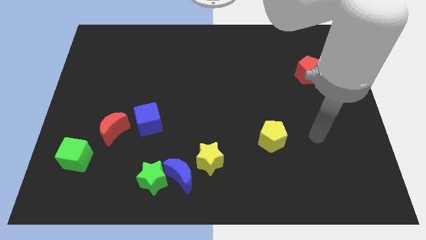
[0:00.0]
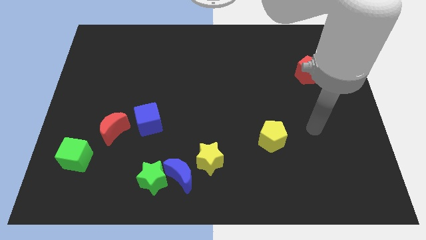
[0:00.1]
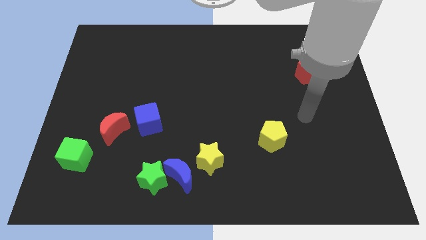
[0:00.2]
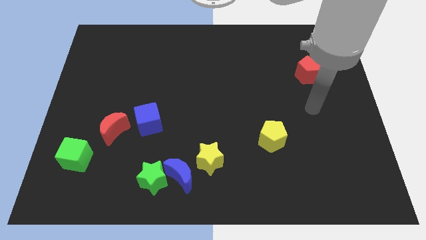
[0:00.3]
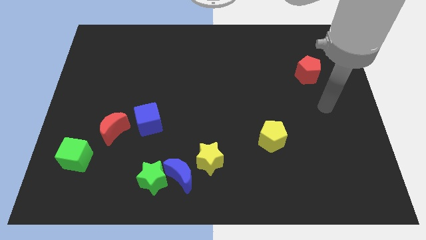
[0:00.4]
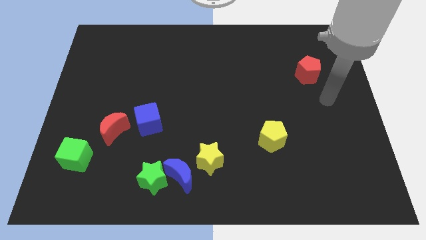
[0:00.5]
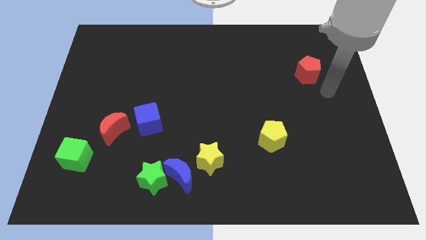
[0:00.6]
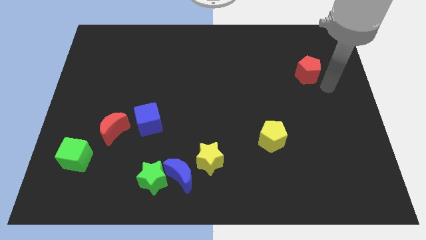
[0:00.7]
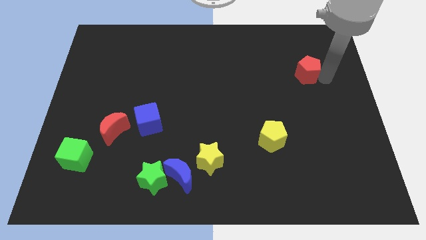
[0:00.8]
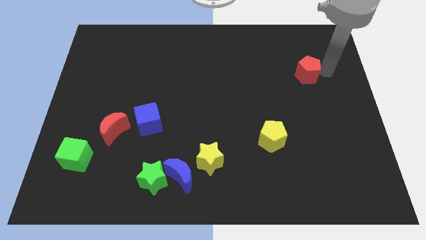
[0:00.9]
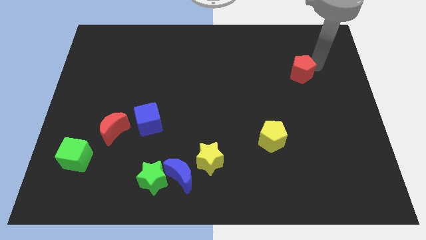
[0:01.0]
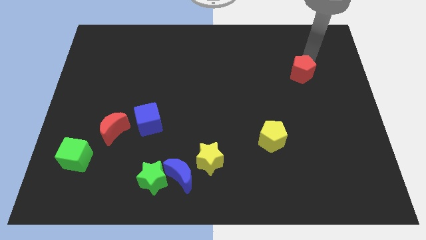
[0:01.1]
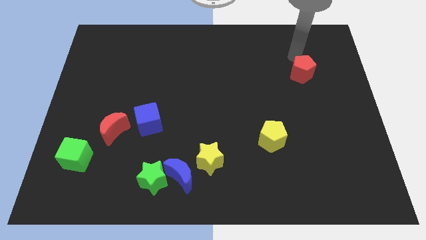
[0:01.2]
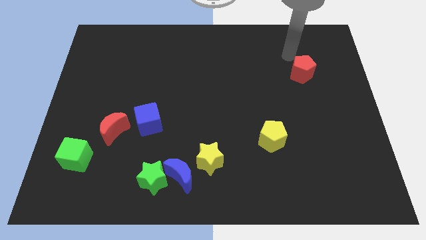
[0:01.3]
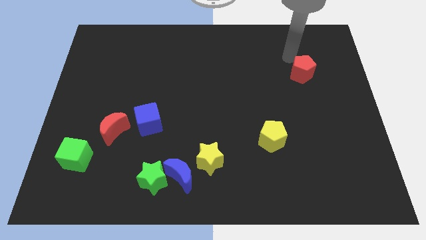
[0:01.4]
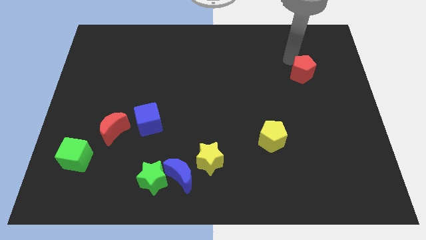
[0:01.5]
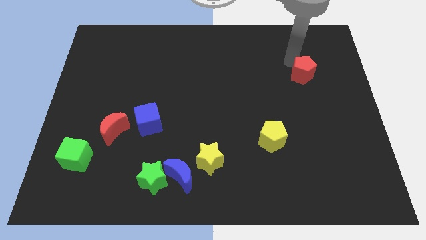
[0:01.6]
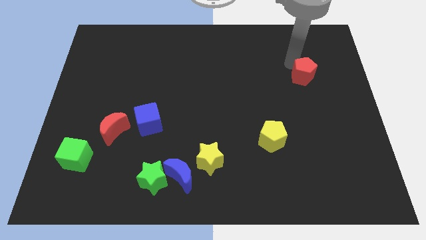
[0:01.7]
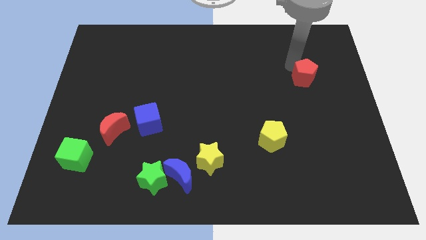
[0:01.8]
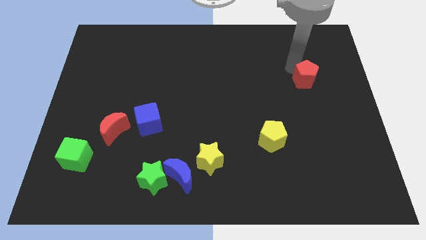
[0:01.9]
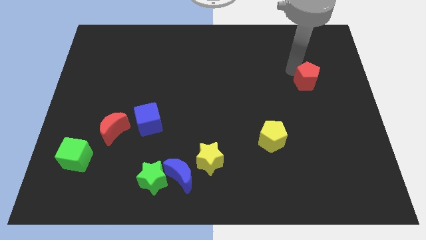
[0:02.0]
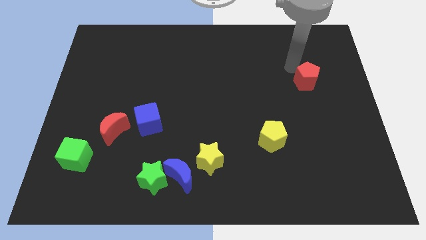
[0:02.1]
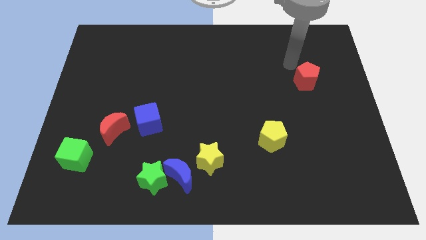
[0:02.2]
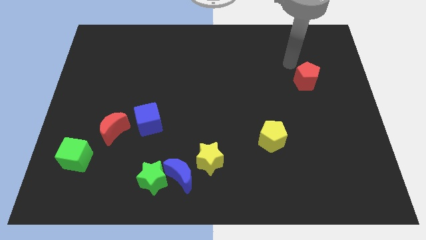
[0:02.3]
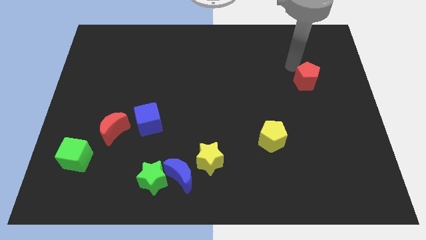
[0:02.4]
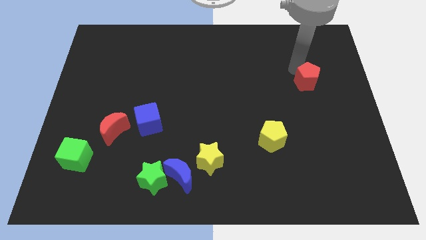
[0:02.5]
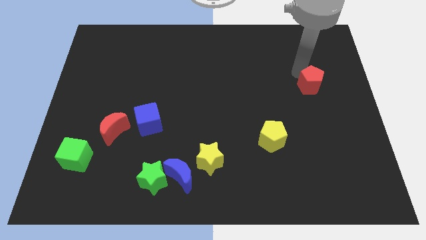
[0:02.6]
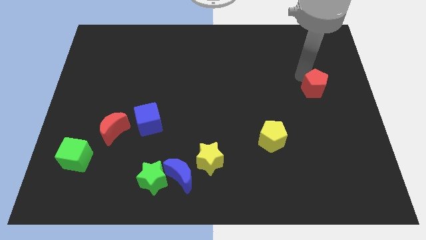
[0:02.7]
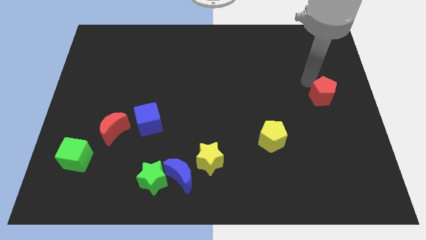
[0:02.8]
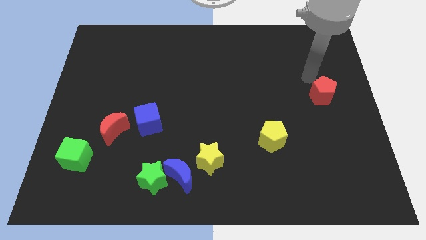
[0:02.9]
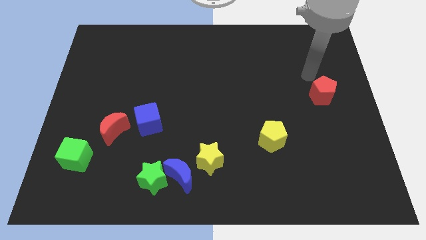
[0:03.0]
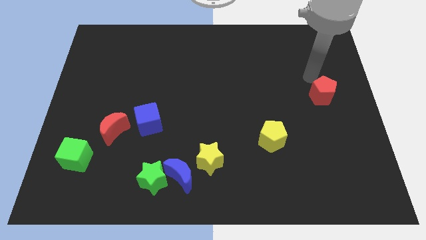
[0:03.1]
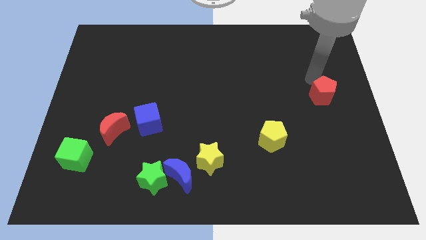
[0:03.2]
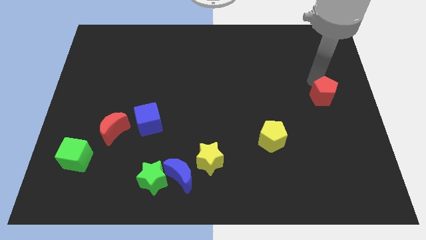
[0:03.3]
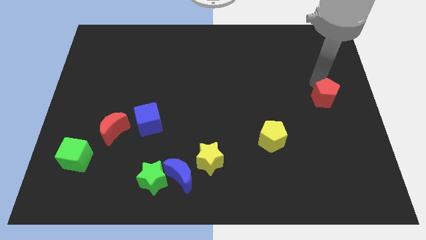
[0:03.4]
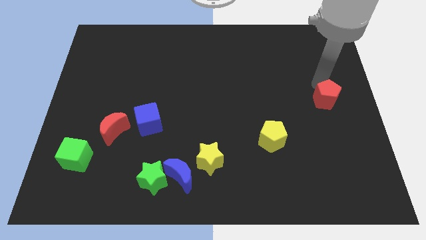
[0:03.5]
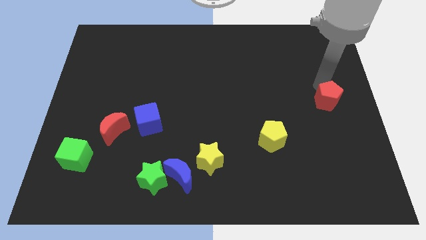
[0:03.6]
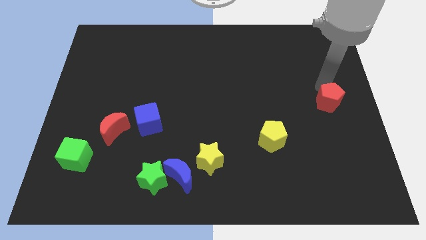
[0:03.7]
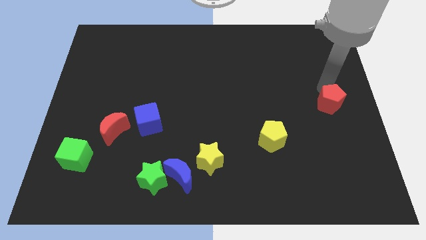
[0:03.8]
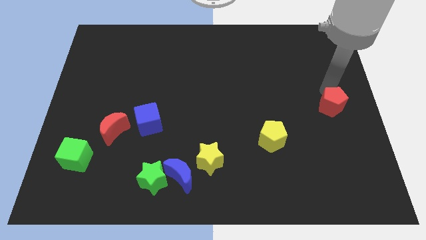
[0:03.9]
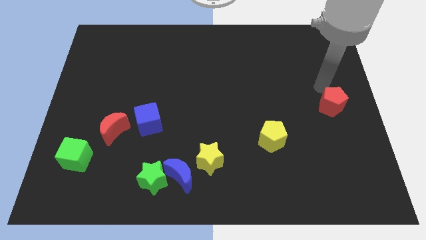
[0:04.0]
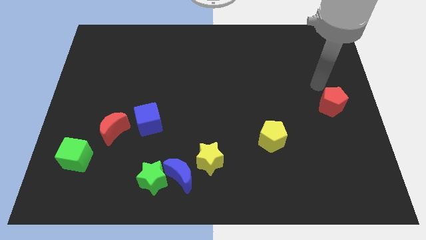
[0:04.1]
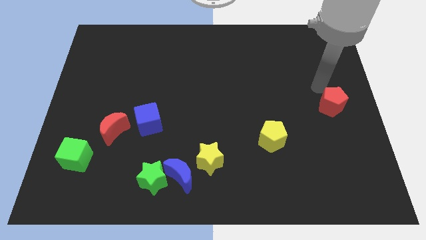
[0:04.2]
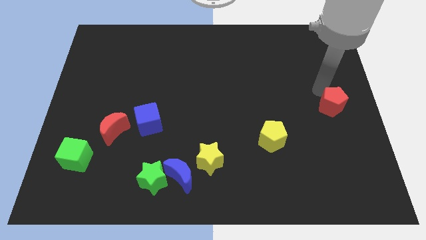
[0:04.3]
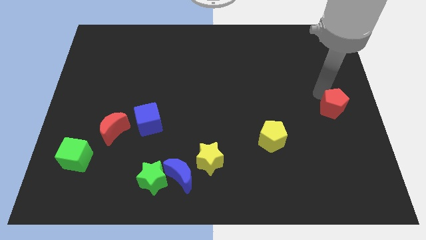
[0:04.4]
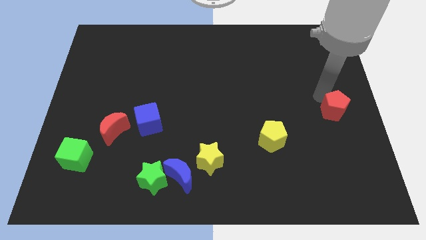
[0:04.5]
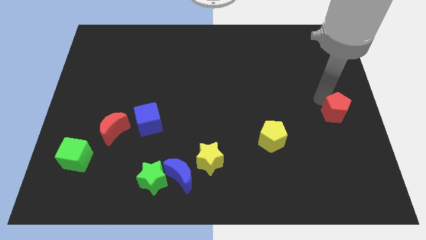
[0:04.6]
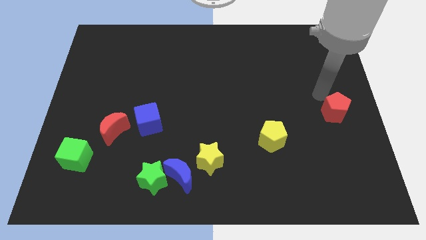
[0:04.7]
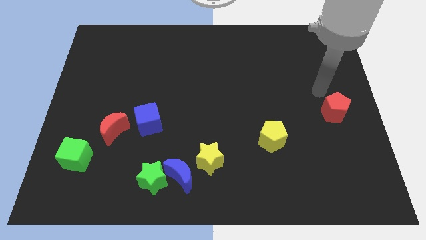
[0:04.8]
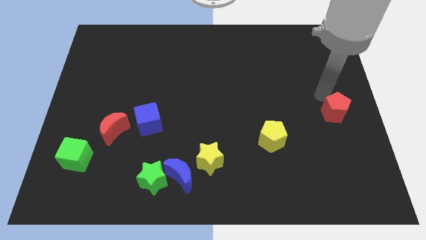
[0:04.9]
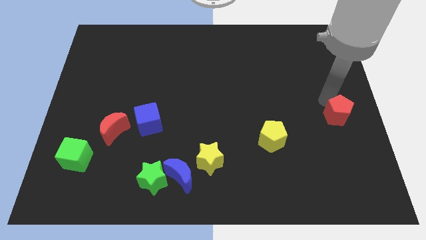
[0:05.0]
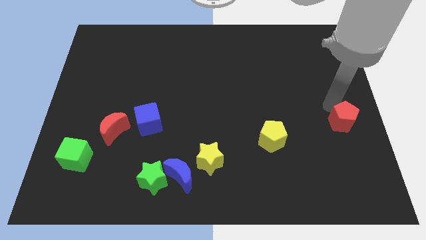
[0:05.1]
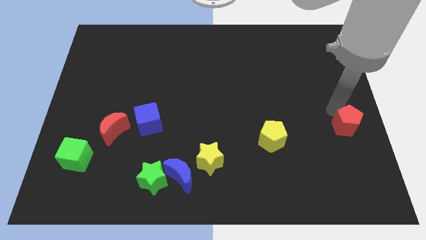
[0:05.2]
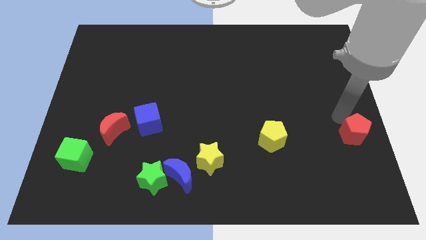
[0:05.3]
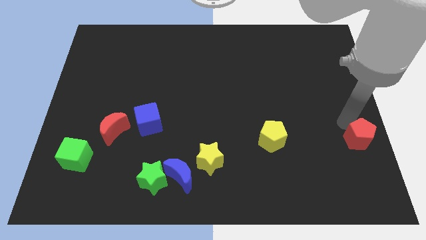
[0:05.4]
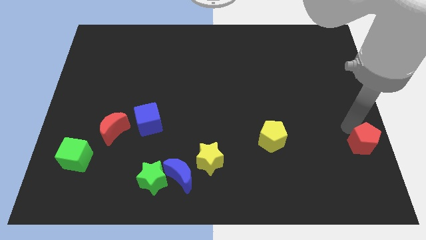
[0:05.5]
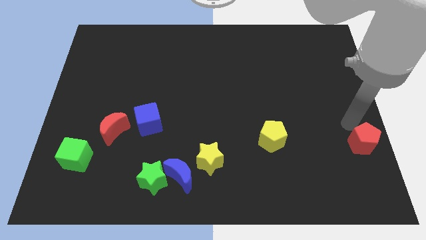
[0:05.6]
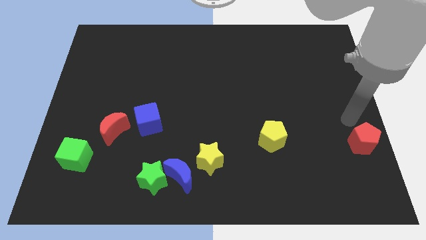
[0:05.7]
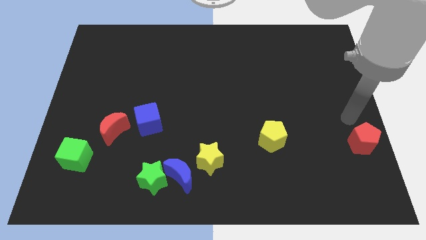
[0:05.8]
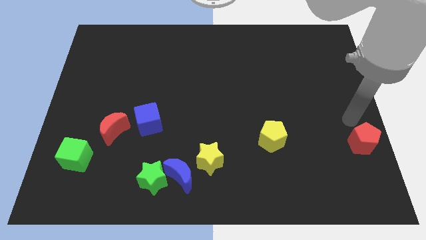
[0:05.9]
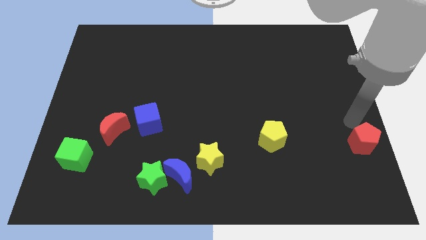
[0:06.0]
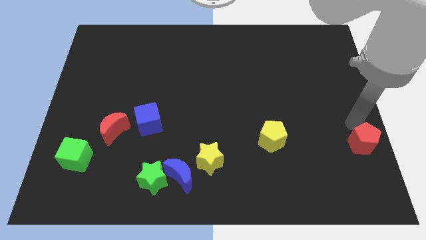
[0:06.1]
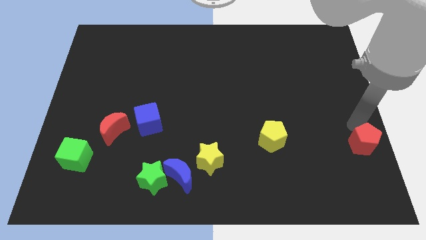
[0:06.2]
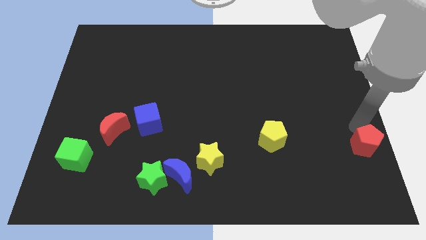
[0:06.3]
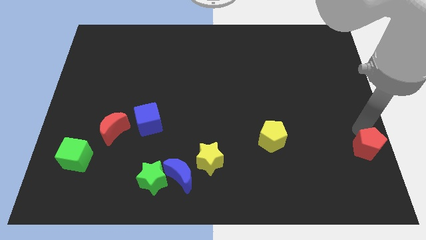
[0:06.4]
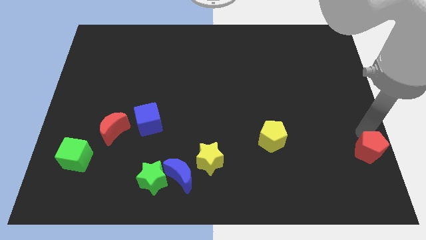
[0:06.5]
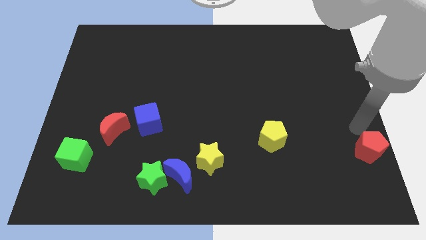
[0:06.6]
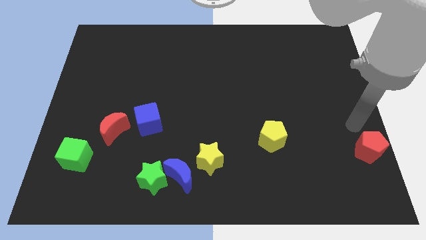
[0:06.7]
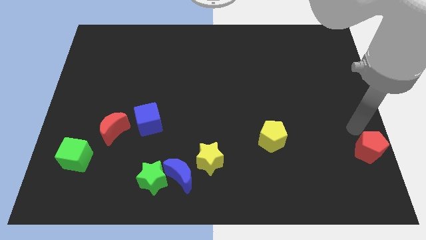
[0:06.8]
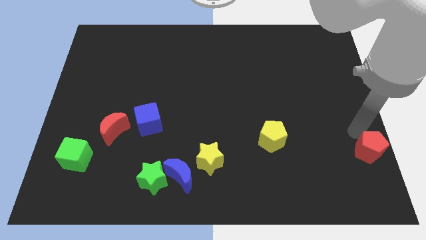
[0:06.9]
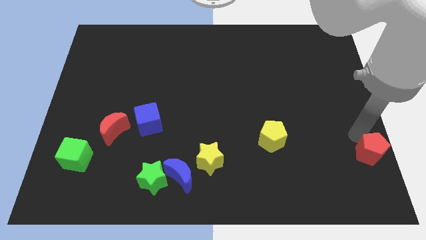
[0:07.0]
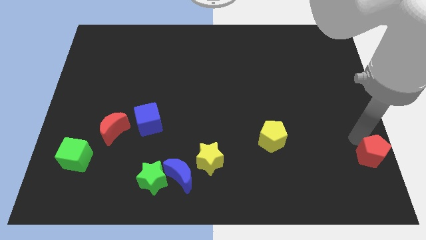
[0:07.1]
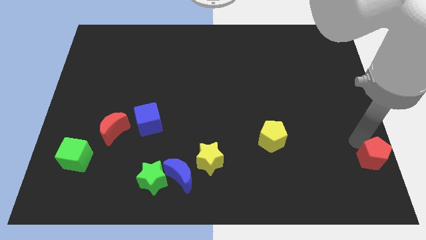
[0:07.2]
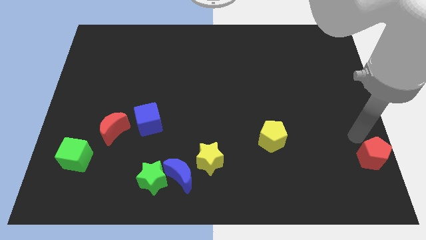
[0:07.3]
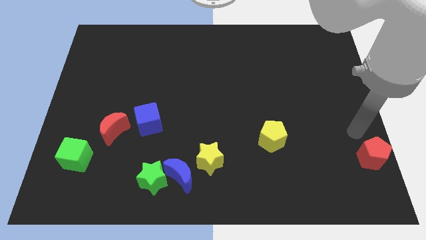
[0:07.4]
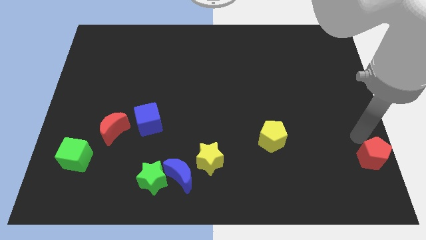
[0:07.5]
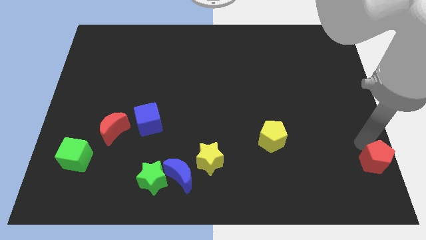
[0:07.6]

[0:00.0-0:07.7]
put the red pentagon to the bottom right
